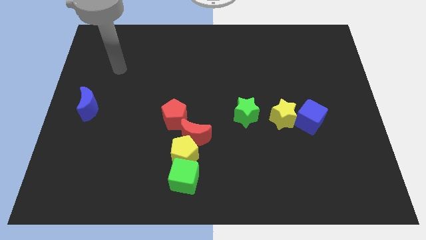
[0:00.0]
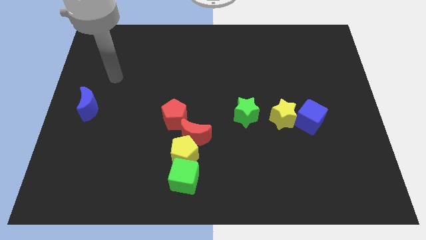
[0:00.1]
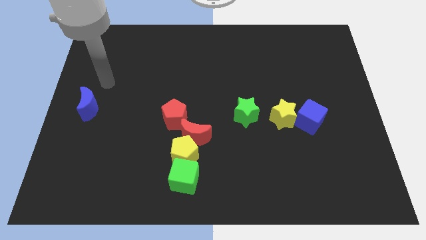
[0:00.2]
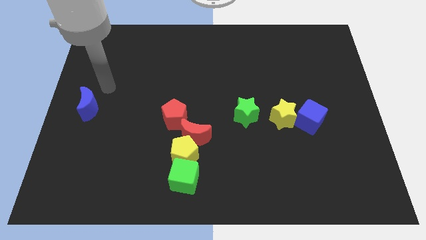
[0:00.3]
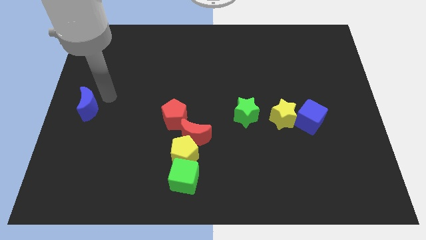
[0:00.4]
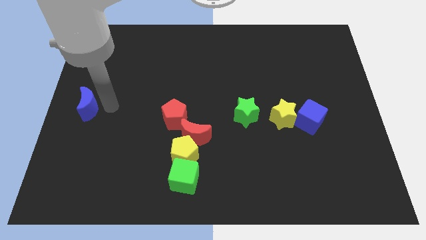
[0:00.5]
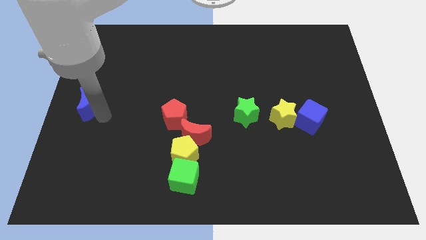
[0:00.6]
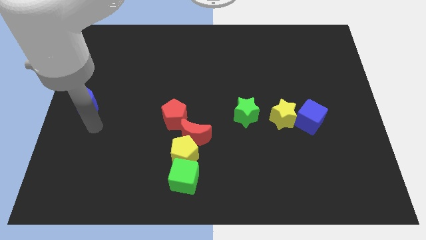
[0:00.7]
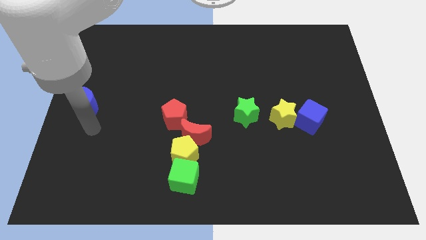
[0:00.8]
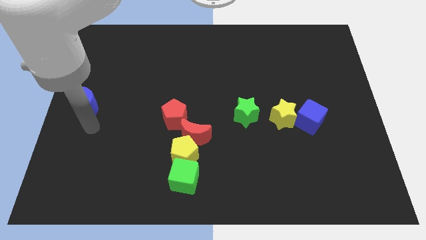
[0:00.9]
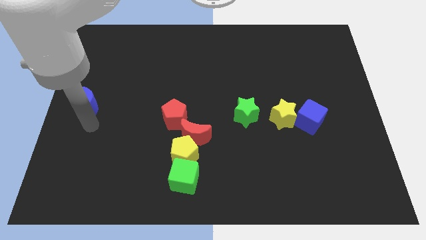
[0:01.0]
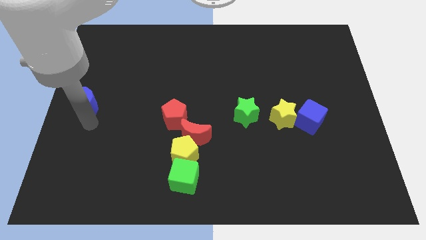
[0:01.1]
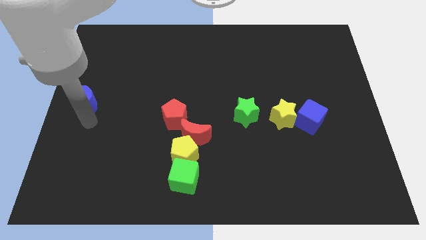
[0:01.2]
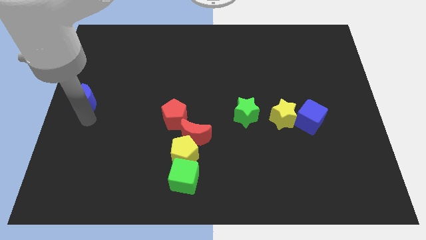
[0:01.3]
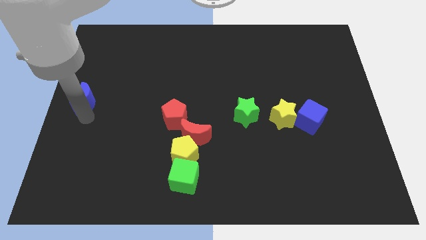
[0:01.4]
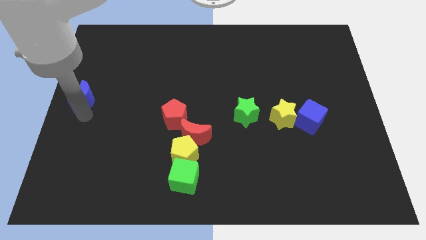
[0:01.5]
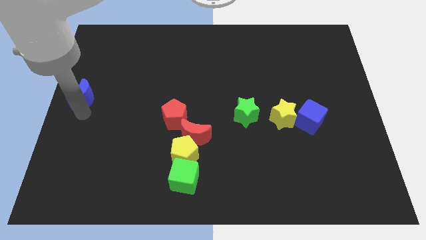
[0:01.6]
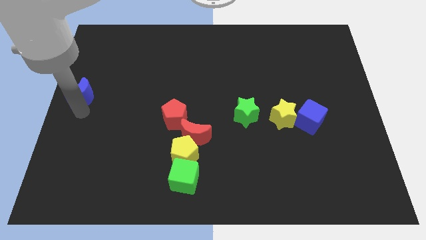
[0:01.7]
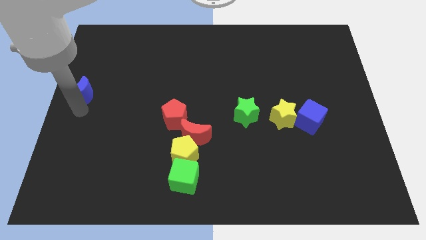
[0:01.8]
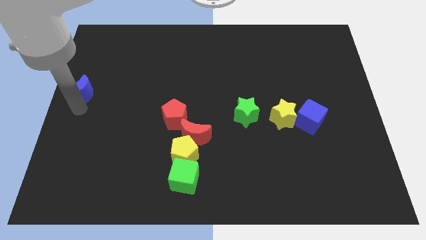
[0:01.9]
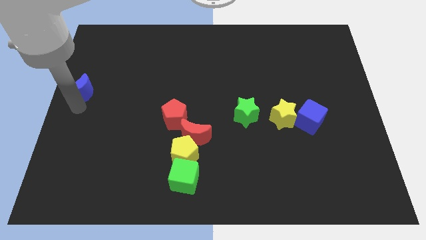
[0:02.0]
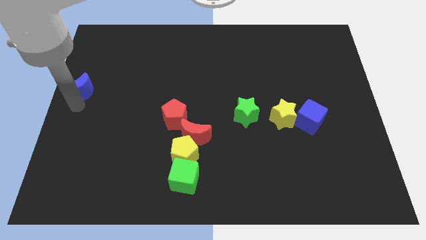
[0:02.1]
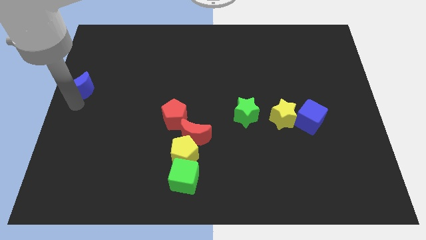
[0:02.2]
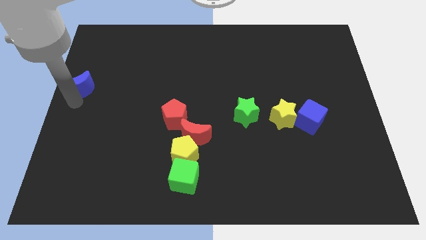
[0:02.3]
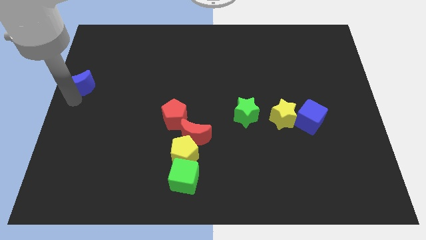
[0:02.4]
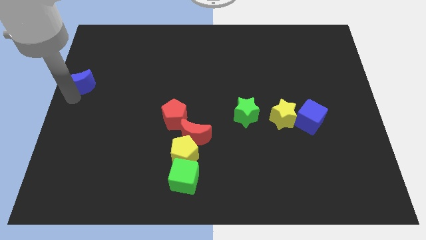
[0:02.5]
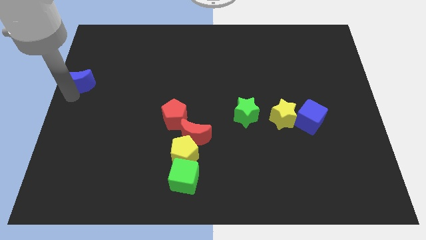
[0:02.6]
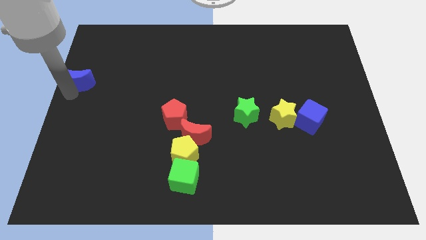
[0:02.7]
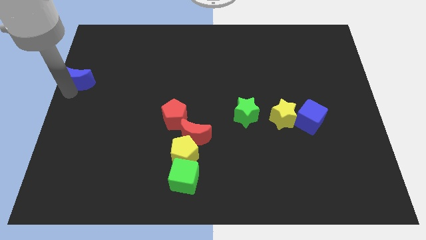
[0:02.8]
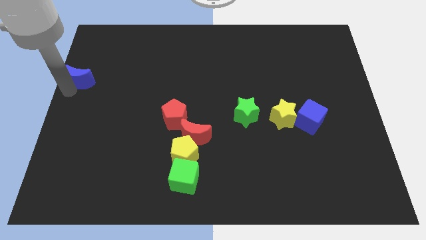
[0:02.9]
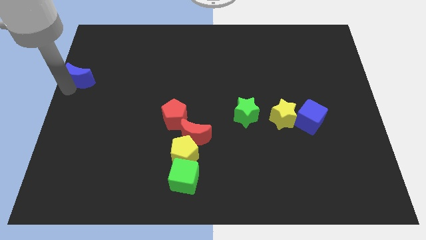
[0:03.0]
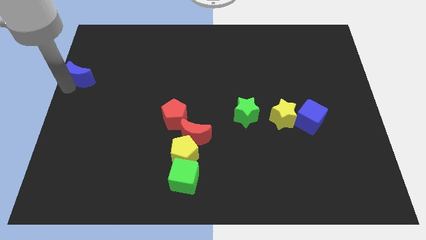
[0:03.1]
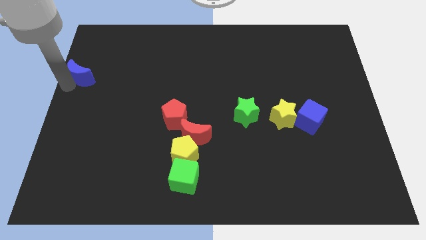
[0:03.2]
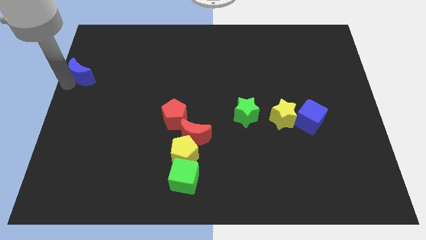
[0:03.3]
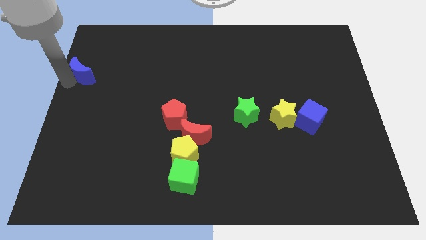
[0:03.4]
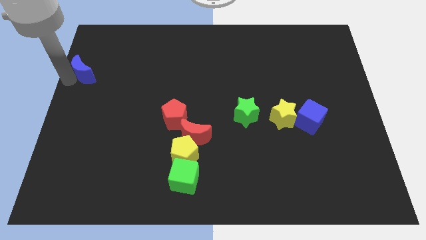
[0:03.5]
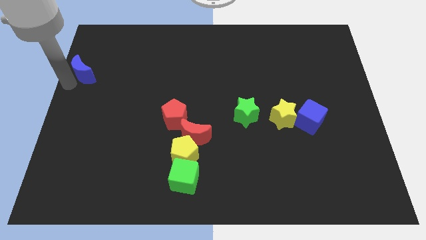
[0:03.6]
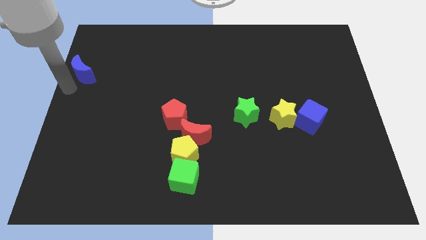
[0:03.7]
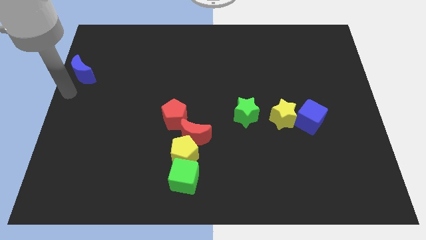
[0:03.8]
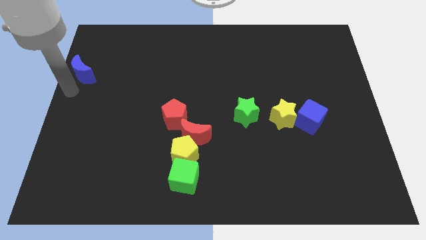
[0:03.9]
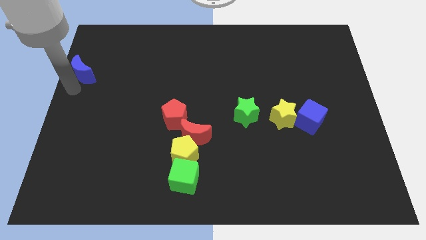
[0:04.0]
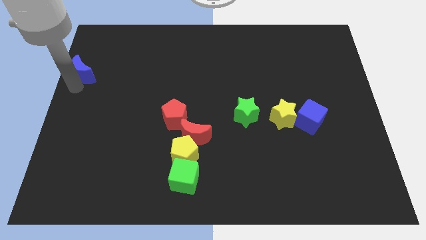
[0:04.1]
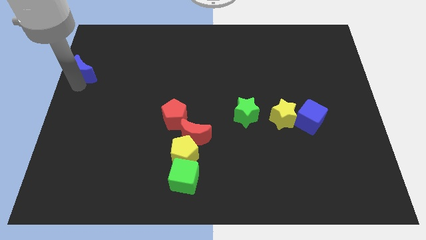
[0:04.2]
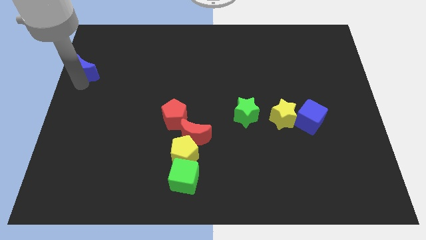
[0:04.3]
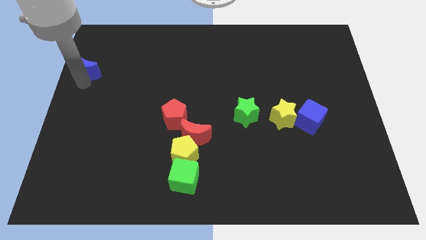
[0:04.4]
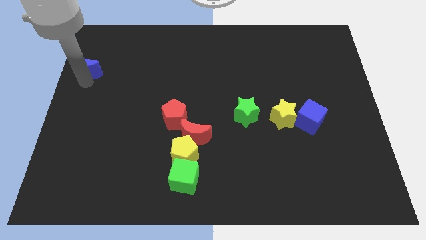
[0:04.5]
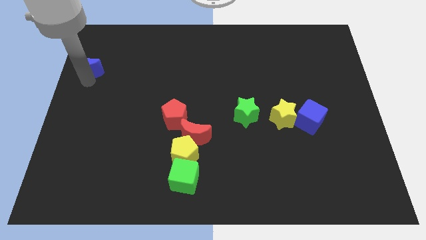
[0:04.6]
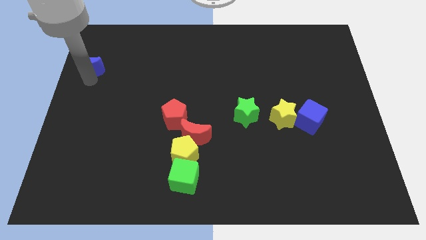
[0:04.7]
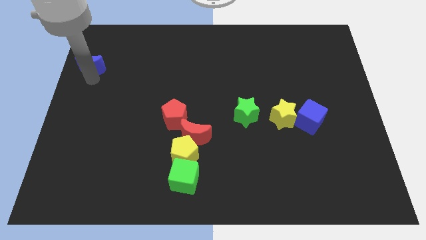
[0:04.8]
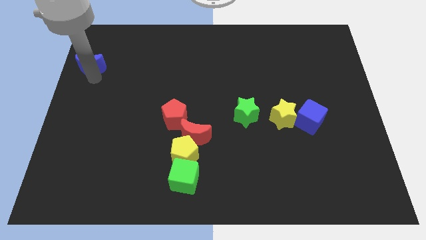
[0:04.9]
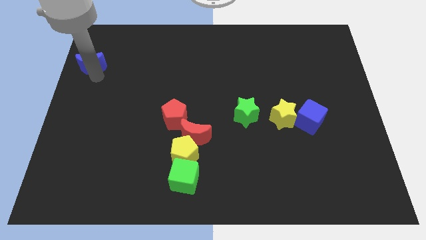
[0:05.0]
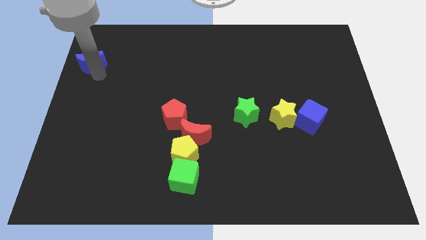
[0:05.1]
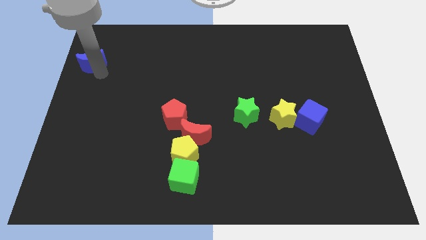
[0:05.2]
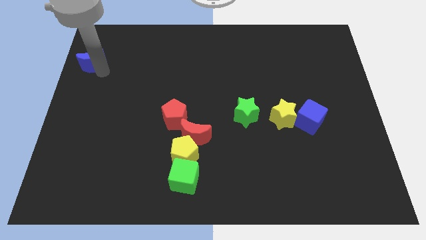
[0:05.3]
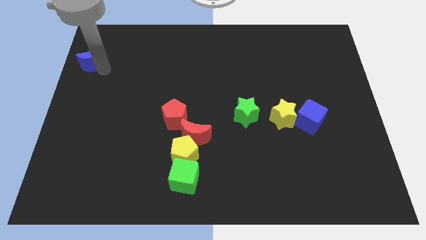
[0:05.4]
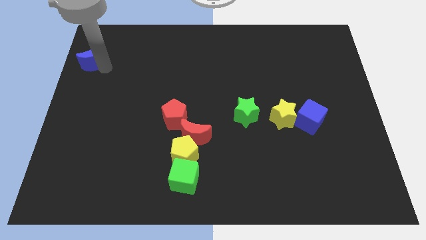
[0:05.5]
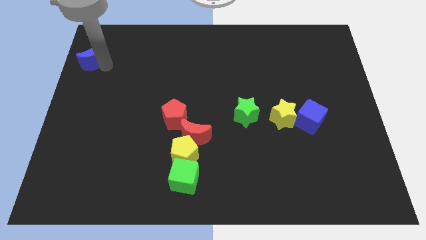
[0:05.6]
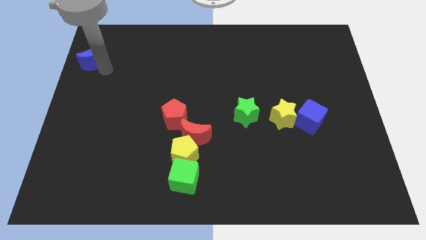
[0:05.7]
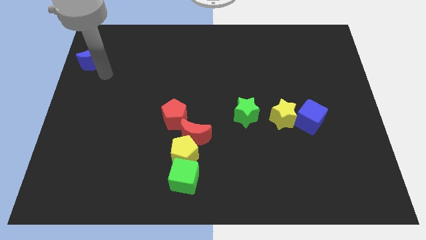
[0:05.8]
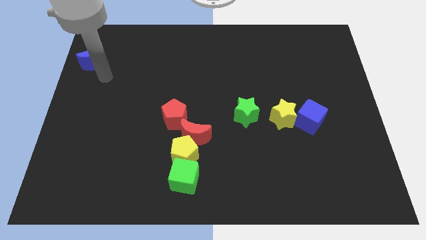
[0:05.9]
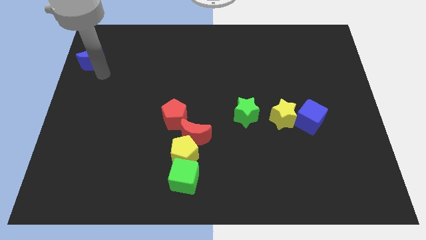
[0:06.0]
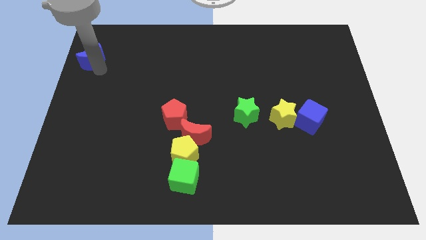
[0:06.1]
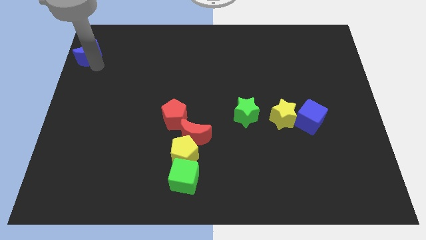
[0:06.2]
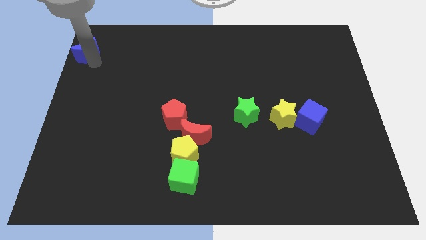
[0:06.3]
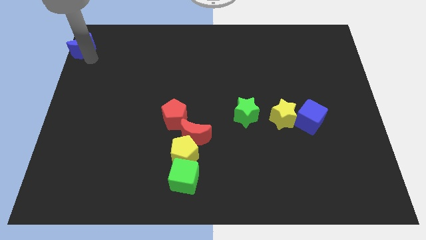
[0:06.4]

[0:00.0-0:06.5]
move the blue moon to the upper left corner

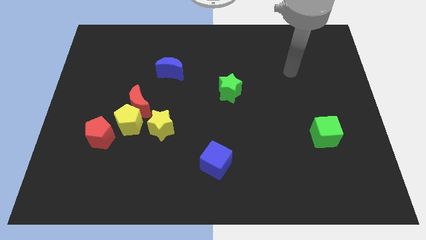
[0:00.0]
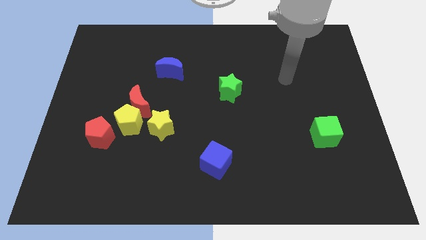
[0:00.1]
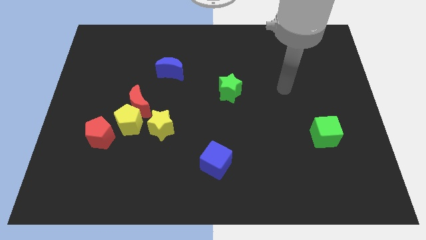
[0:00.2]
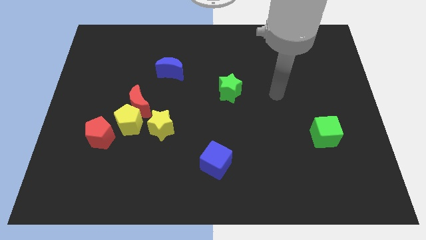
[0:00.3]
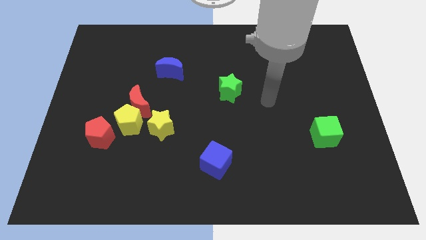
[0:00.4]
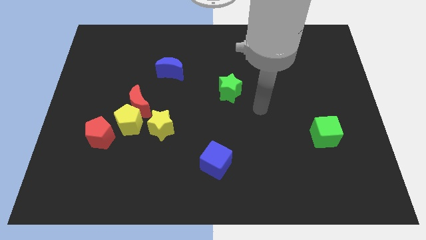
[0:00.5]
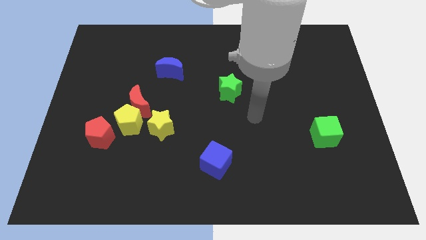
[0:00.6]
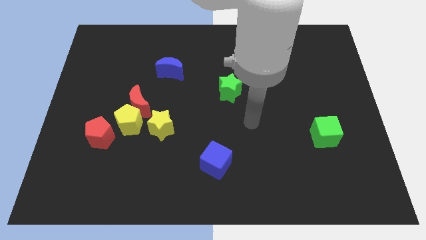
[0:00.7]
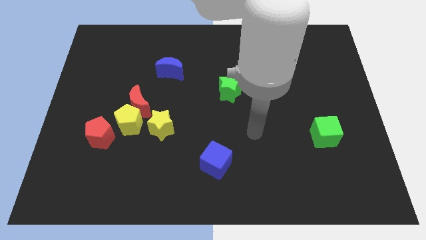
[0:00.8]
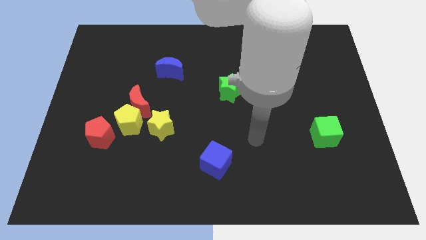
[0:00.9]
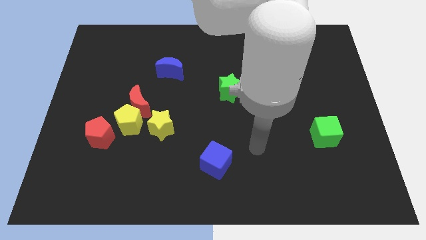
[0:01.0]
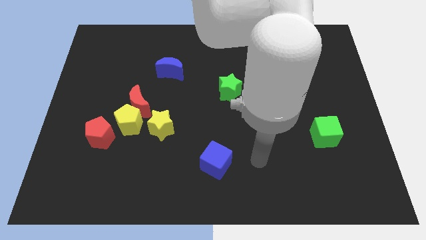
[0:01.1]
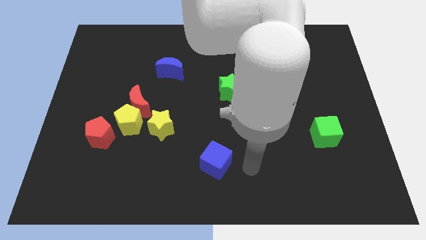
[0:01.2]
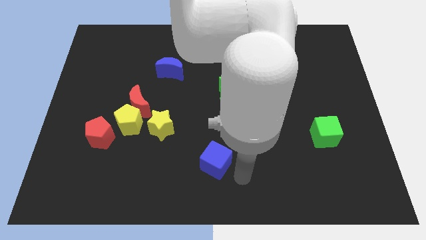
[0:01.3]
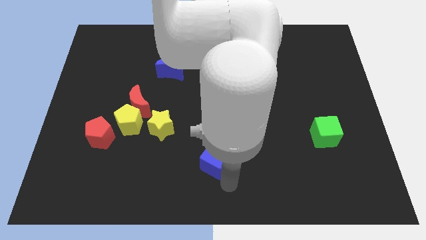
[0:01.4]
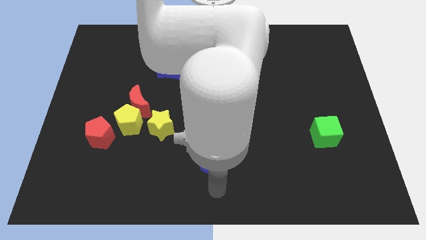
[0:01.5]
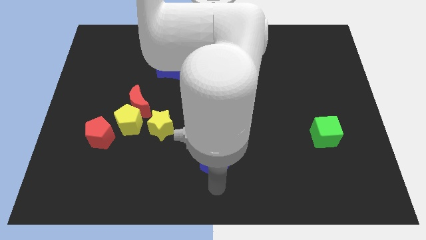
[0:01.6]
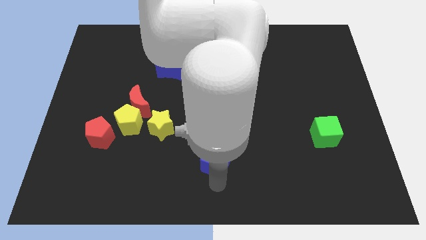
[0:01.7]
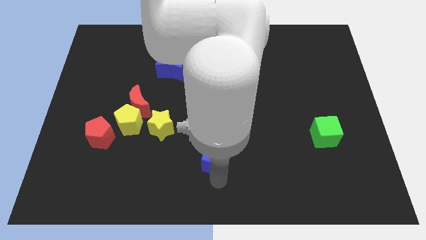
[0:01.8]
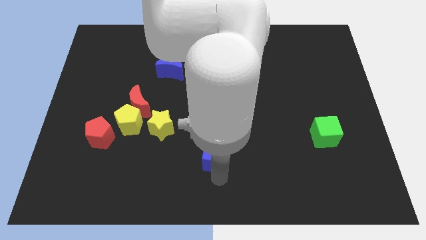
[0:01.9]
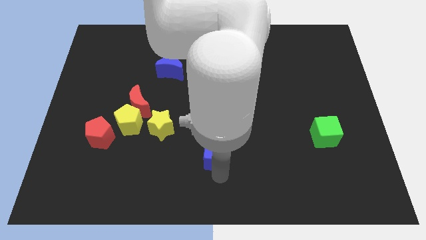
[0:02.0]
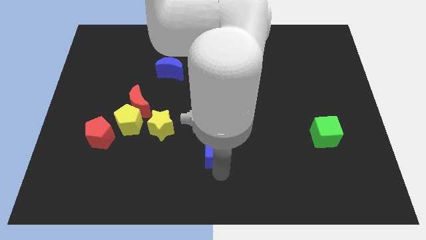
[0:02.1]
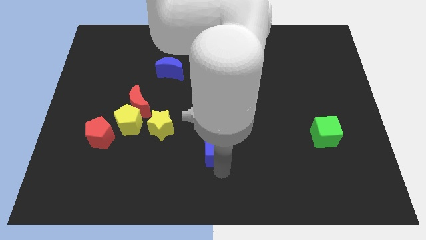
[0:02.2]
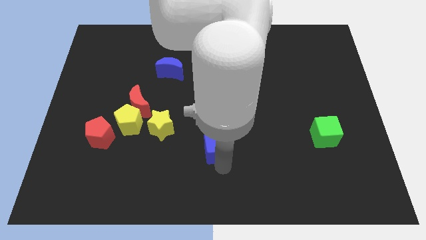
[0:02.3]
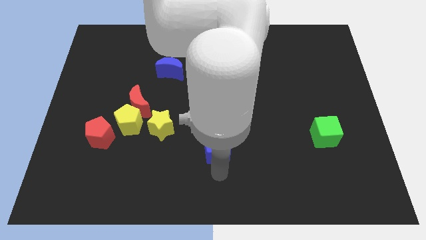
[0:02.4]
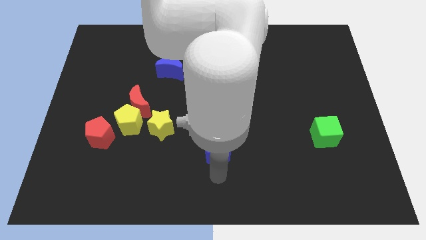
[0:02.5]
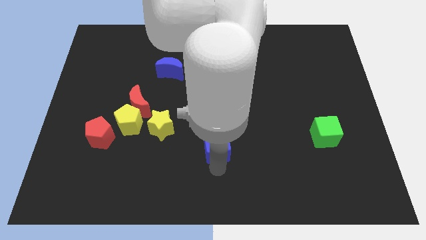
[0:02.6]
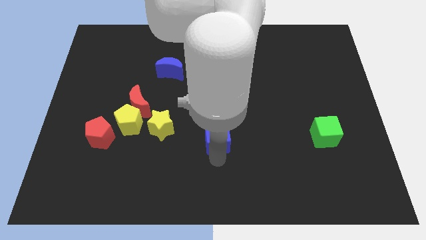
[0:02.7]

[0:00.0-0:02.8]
put the blue cube to the middle
